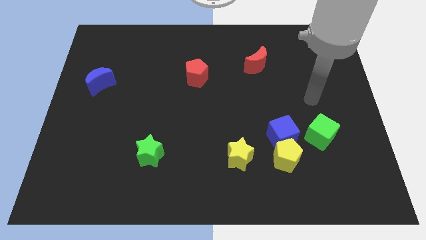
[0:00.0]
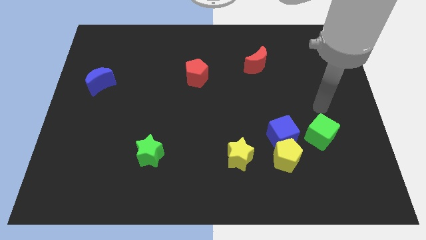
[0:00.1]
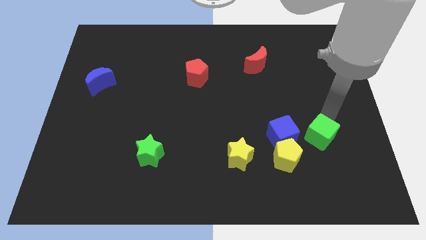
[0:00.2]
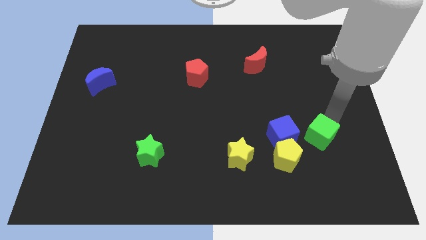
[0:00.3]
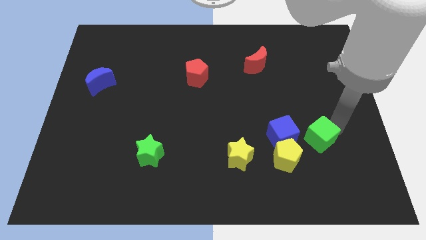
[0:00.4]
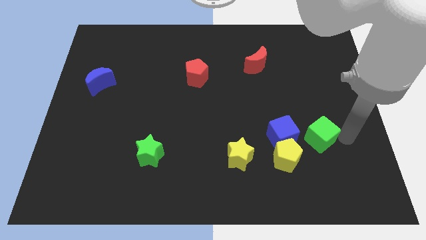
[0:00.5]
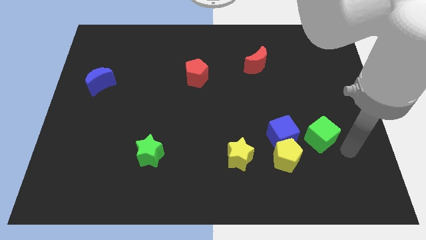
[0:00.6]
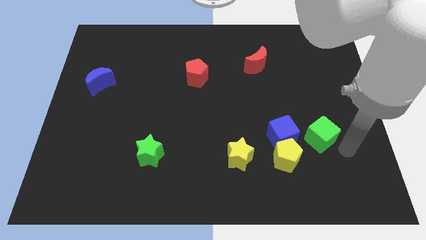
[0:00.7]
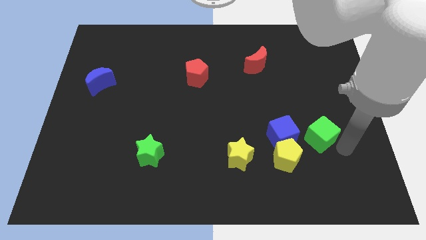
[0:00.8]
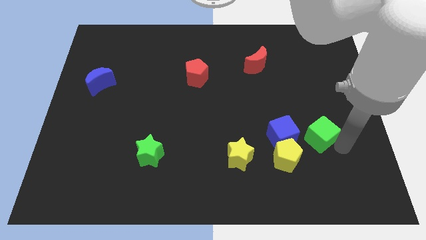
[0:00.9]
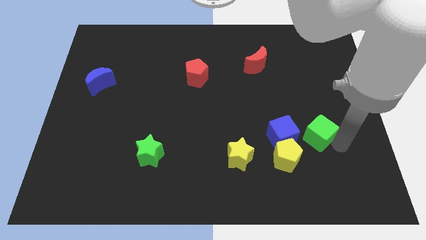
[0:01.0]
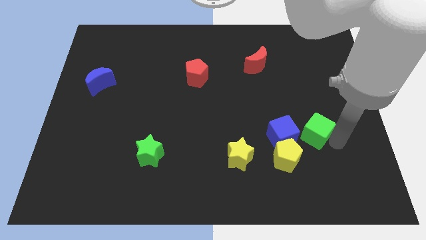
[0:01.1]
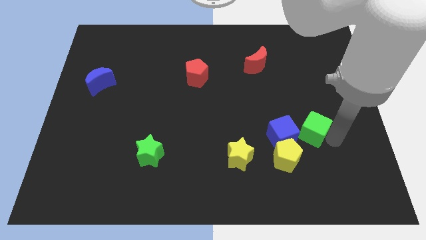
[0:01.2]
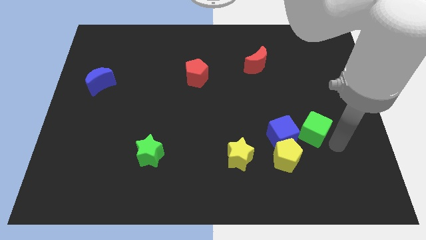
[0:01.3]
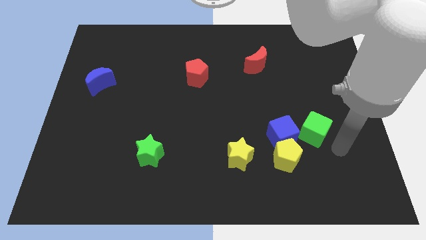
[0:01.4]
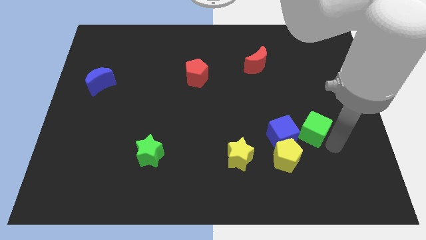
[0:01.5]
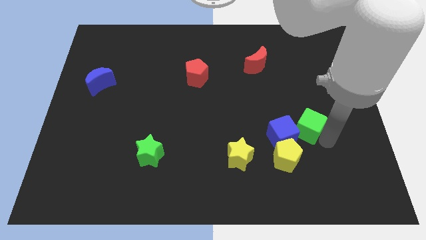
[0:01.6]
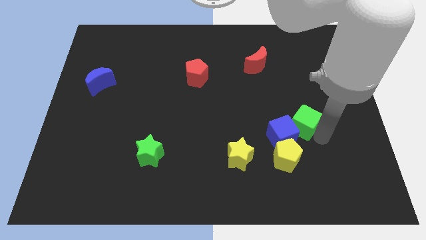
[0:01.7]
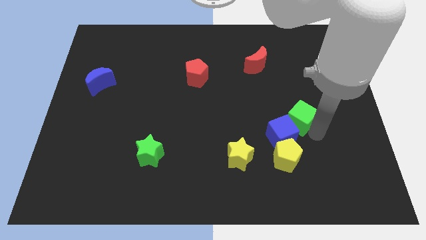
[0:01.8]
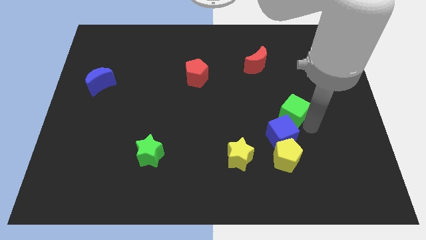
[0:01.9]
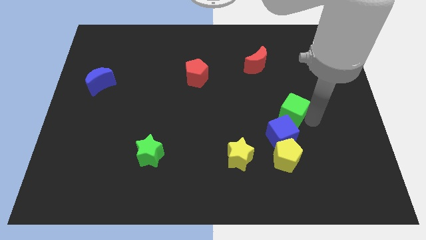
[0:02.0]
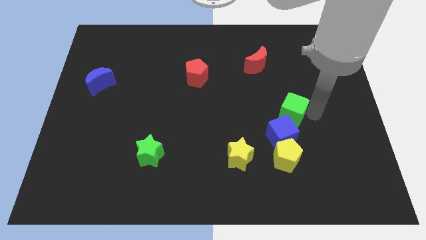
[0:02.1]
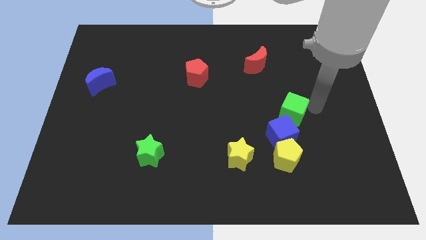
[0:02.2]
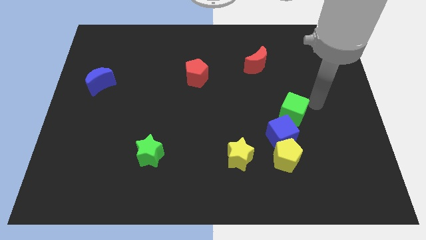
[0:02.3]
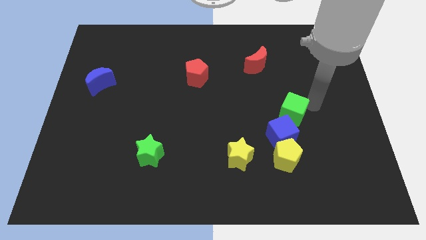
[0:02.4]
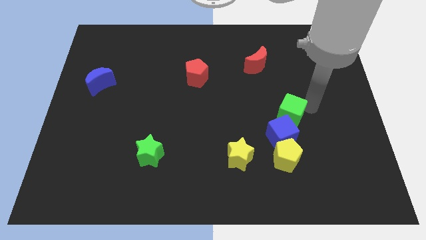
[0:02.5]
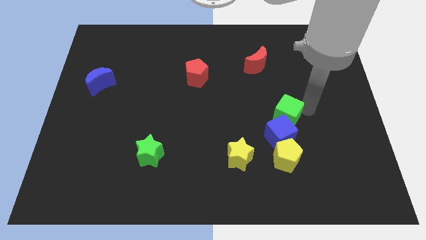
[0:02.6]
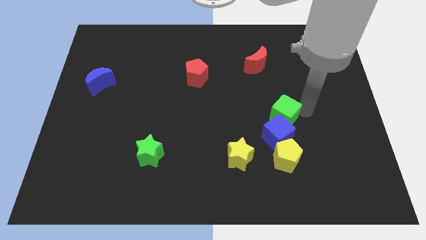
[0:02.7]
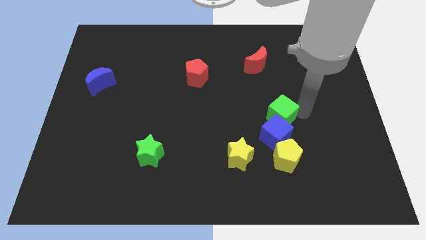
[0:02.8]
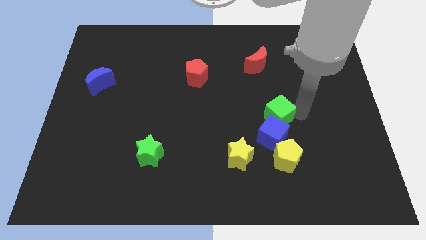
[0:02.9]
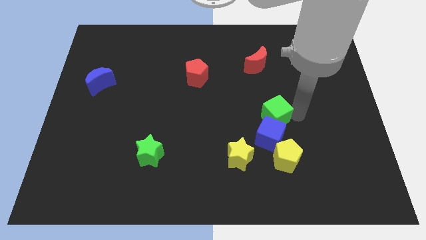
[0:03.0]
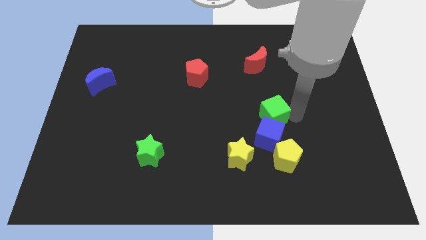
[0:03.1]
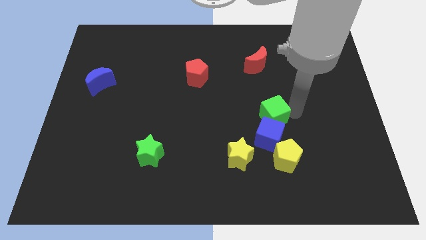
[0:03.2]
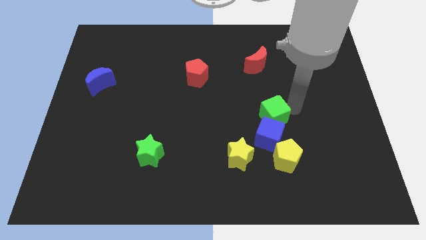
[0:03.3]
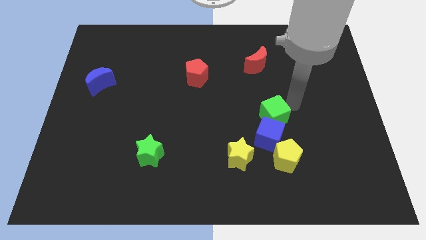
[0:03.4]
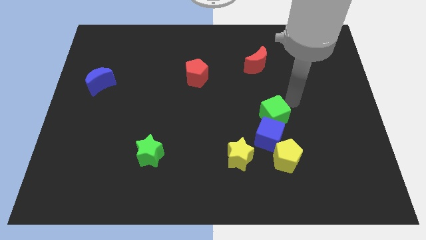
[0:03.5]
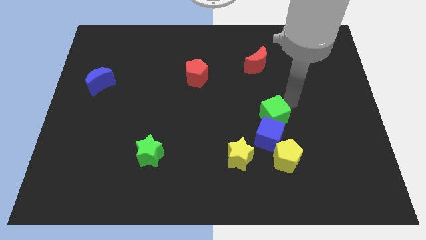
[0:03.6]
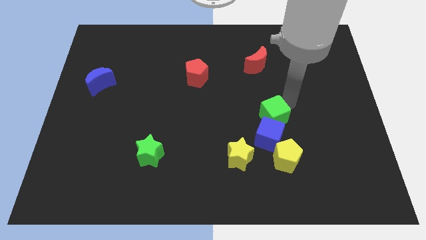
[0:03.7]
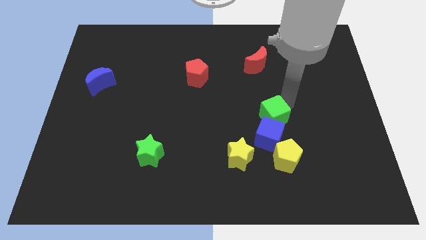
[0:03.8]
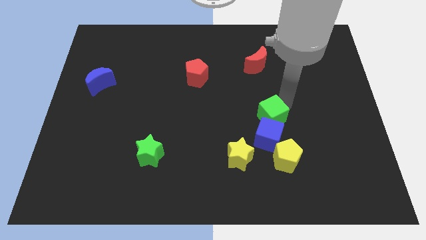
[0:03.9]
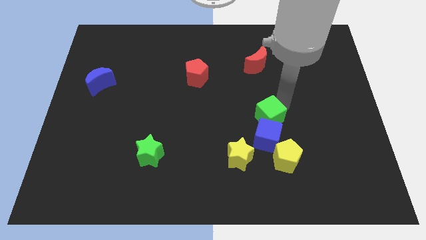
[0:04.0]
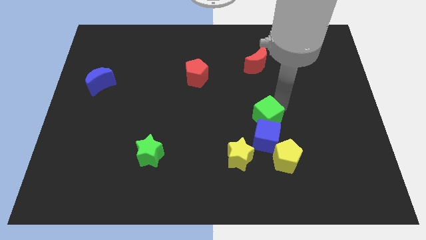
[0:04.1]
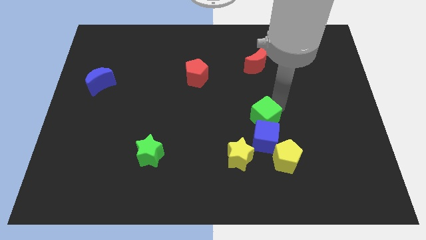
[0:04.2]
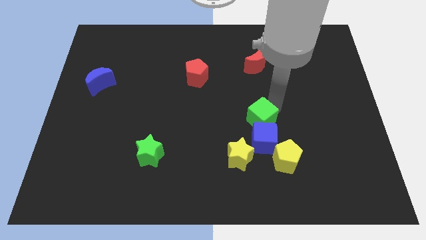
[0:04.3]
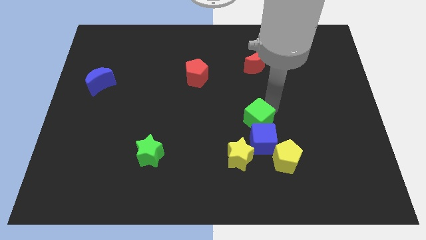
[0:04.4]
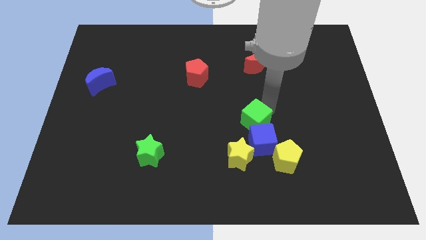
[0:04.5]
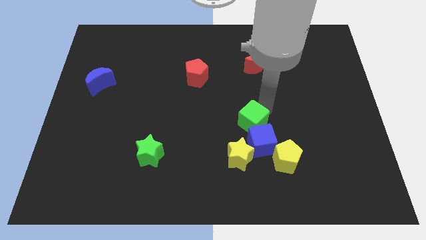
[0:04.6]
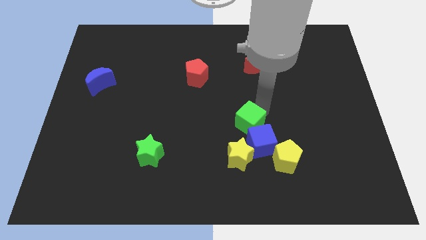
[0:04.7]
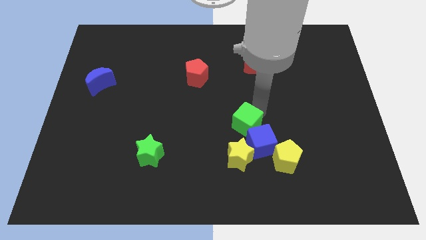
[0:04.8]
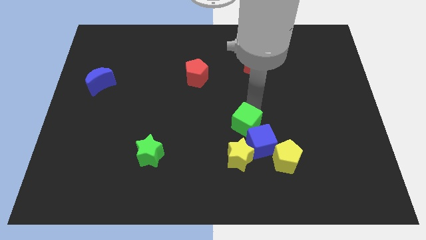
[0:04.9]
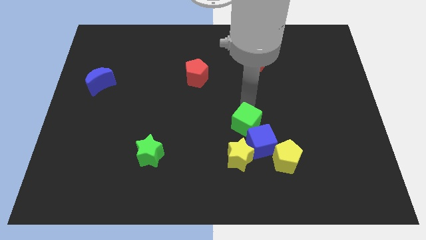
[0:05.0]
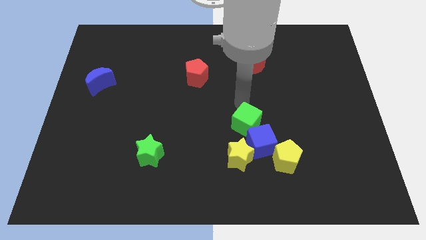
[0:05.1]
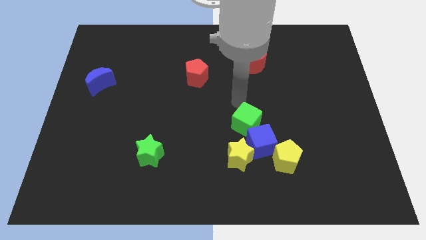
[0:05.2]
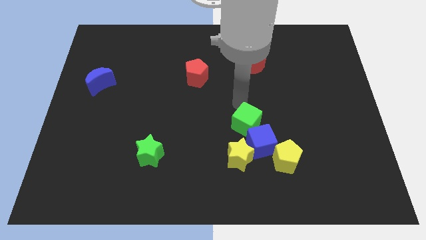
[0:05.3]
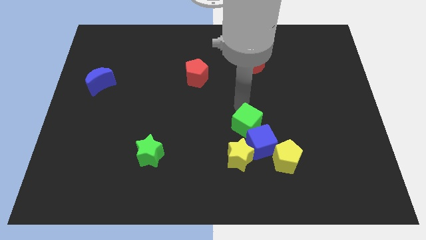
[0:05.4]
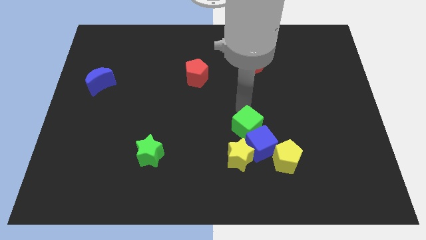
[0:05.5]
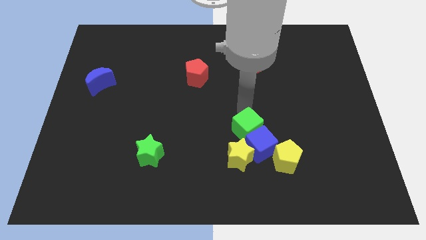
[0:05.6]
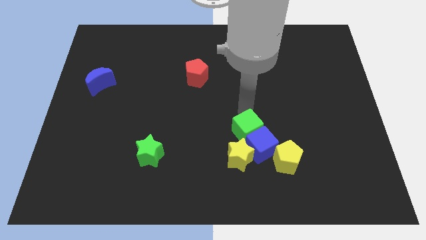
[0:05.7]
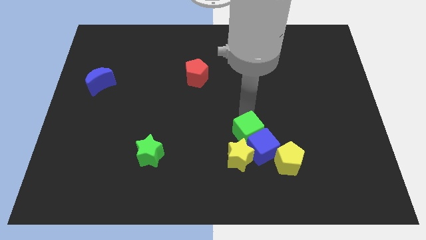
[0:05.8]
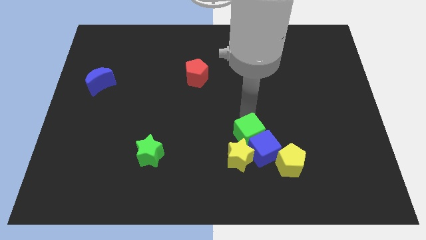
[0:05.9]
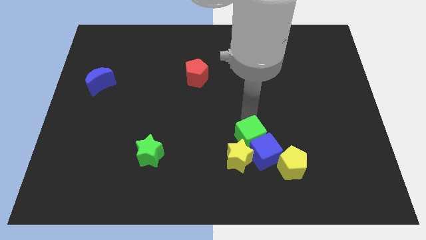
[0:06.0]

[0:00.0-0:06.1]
put the green cube to the yellow star
